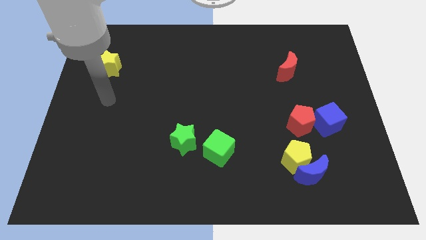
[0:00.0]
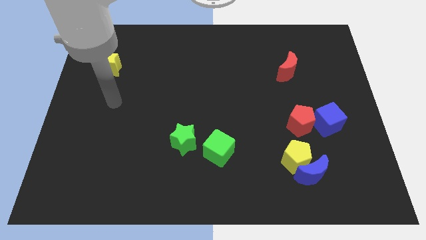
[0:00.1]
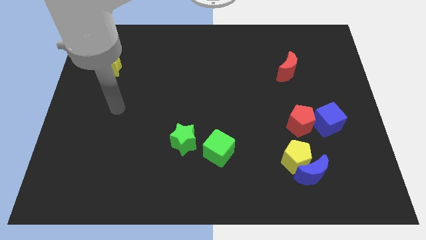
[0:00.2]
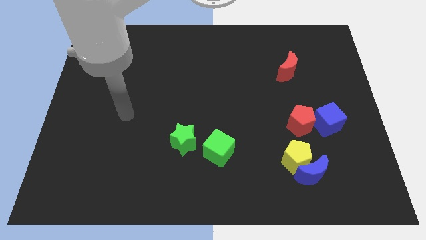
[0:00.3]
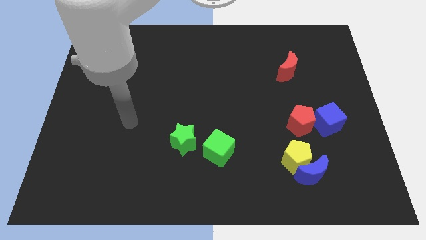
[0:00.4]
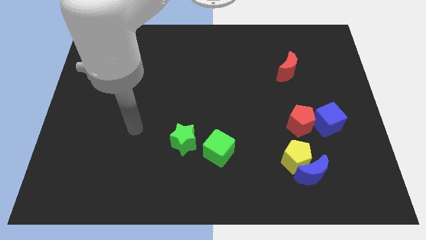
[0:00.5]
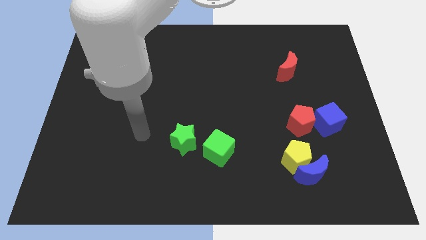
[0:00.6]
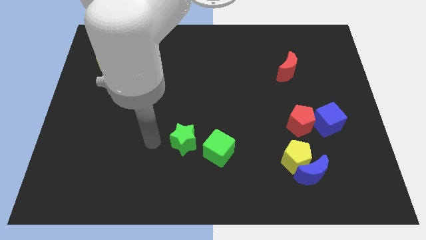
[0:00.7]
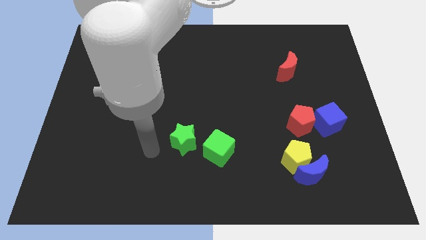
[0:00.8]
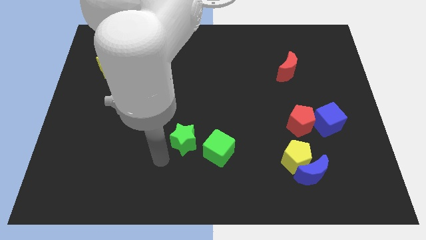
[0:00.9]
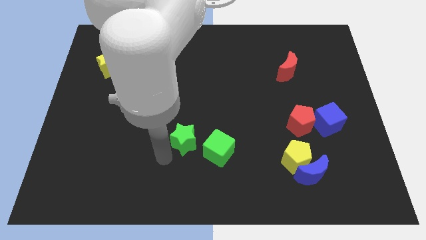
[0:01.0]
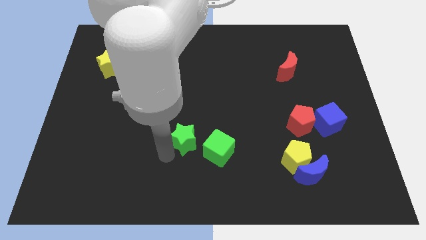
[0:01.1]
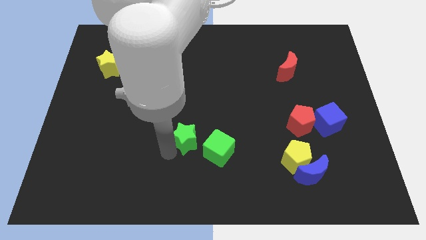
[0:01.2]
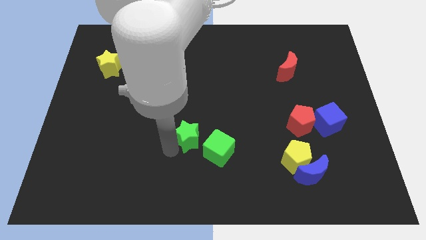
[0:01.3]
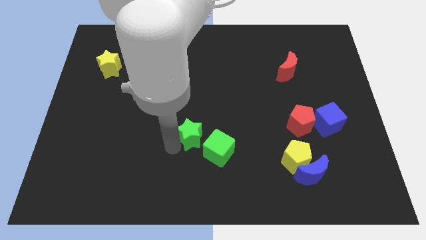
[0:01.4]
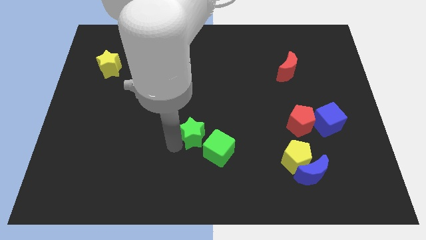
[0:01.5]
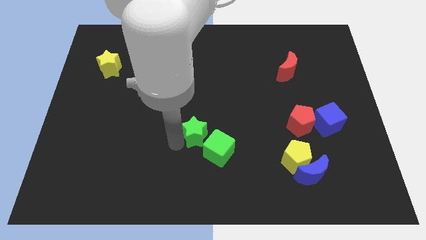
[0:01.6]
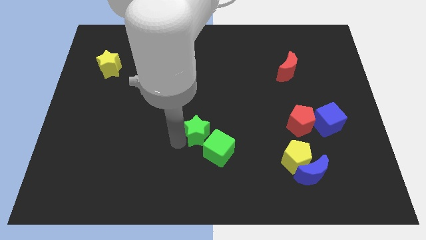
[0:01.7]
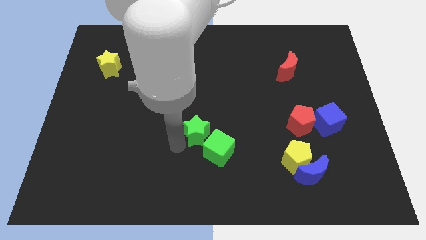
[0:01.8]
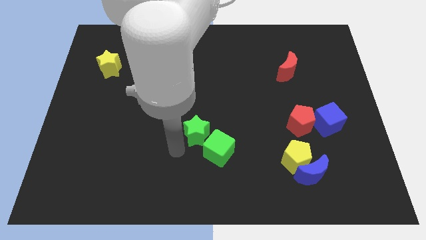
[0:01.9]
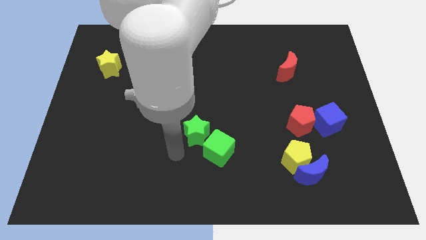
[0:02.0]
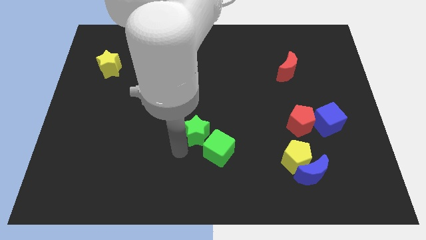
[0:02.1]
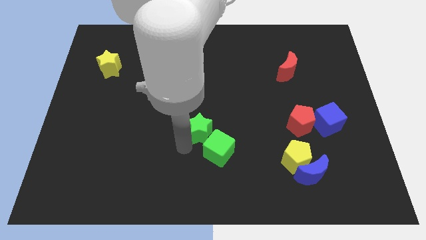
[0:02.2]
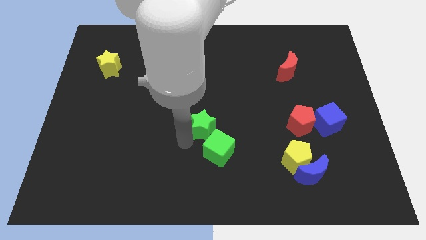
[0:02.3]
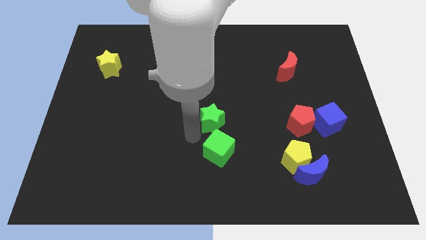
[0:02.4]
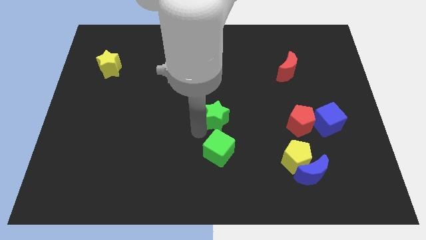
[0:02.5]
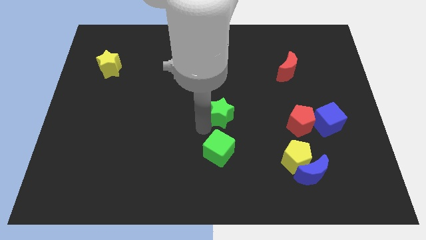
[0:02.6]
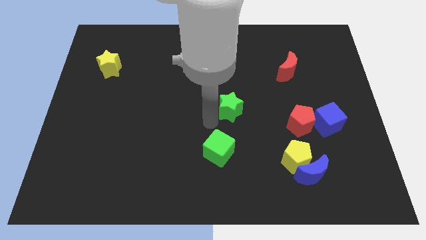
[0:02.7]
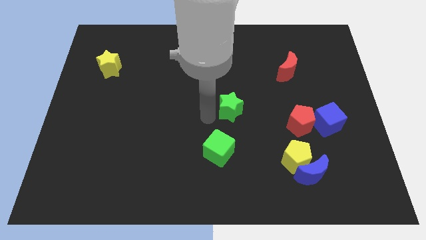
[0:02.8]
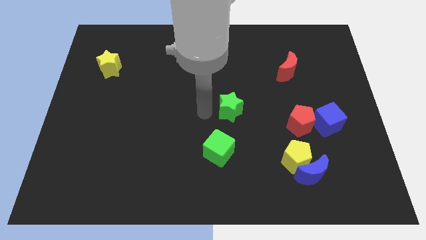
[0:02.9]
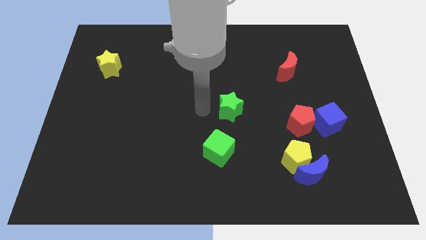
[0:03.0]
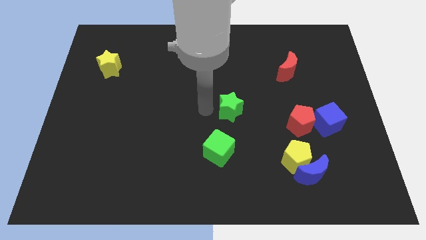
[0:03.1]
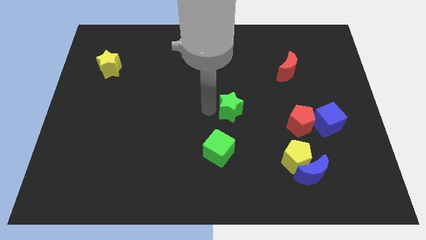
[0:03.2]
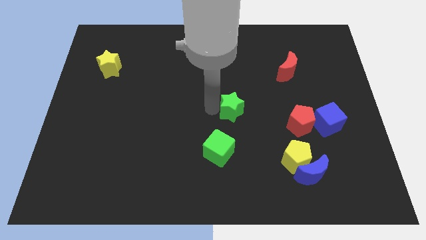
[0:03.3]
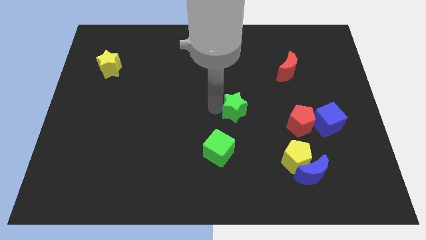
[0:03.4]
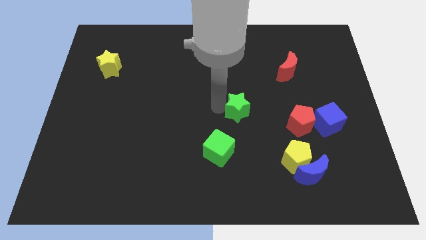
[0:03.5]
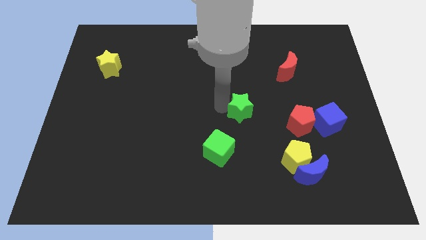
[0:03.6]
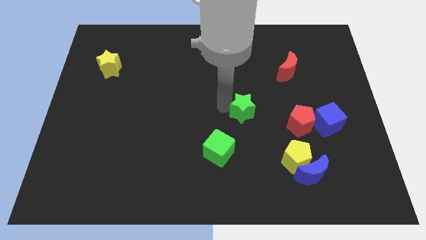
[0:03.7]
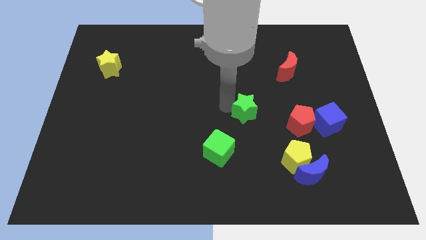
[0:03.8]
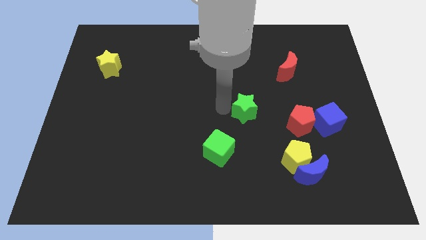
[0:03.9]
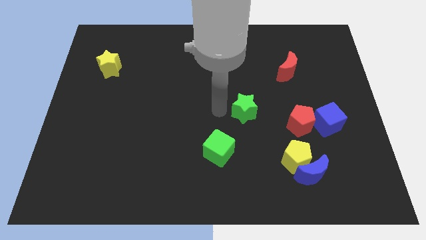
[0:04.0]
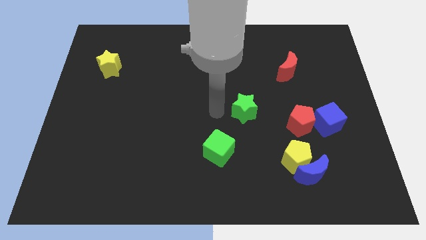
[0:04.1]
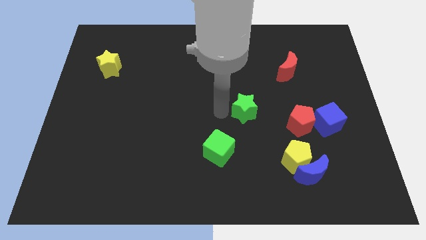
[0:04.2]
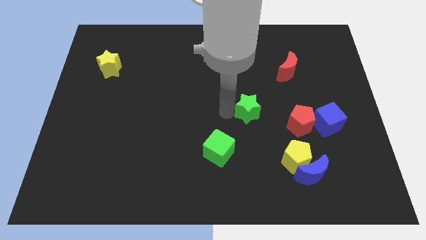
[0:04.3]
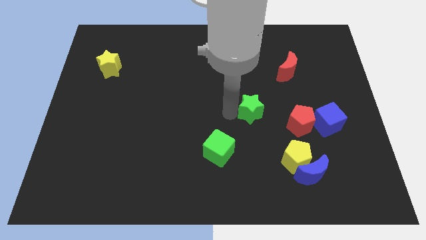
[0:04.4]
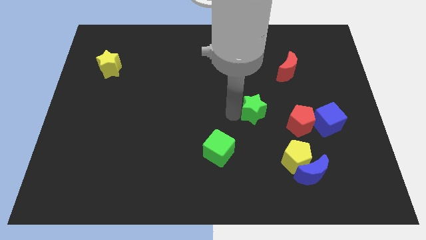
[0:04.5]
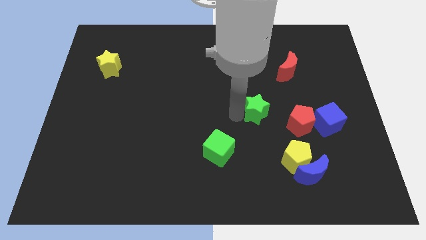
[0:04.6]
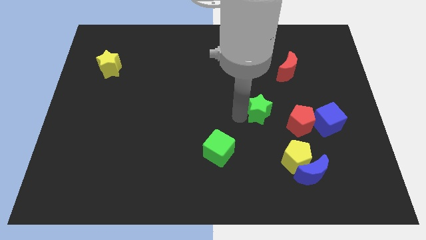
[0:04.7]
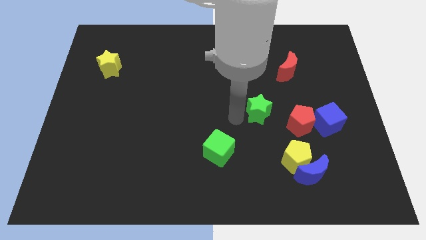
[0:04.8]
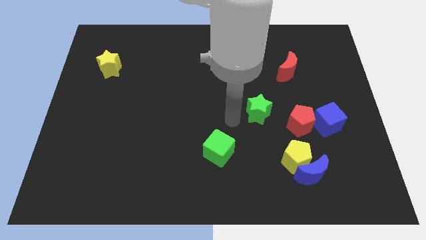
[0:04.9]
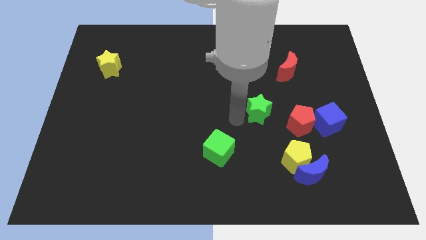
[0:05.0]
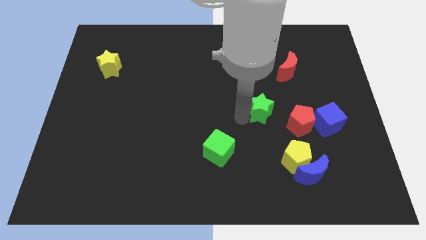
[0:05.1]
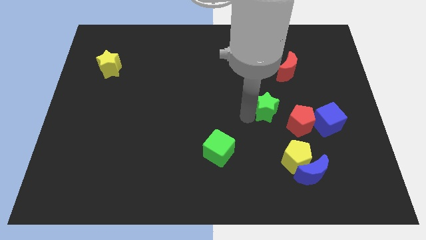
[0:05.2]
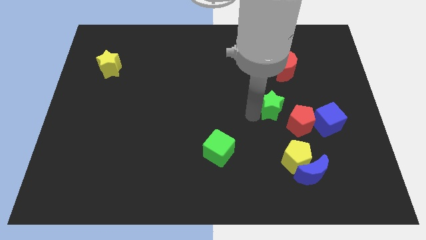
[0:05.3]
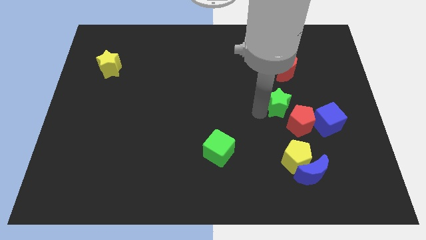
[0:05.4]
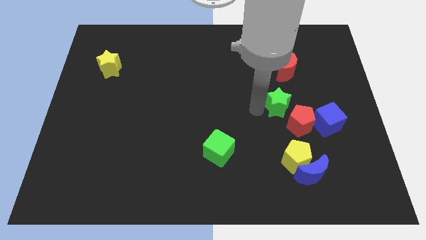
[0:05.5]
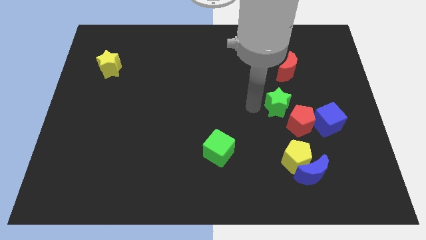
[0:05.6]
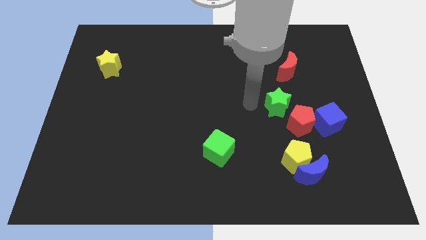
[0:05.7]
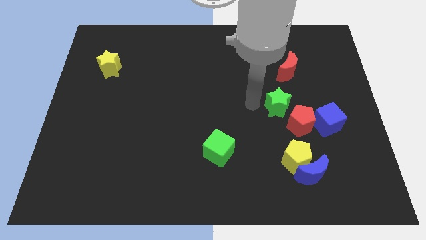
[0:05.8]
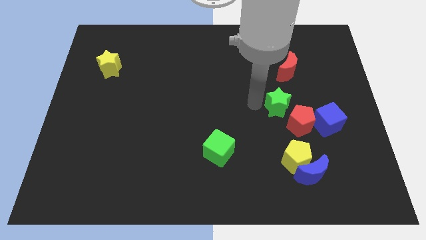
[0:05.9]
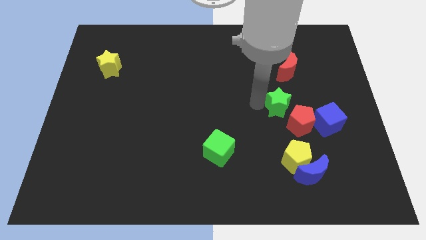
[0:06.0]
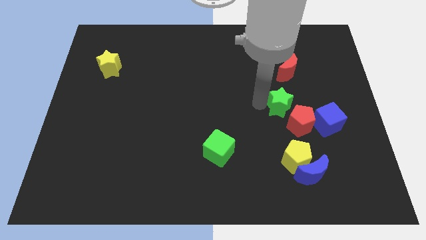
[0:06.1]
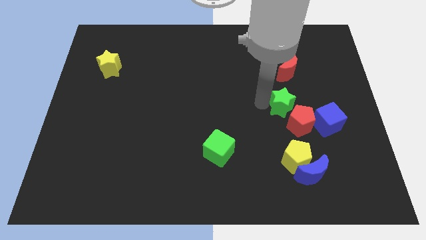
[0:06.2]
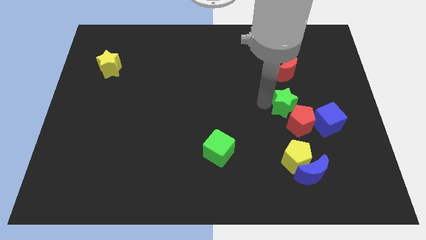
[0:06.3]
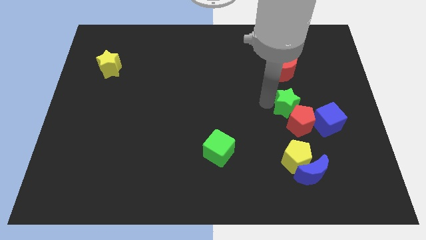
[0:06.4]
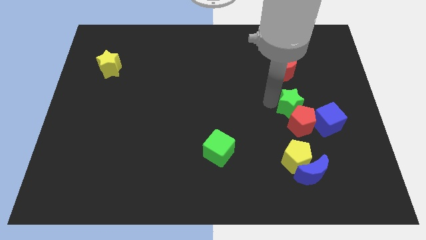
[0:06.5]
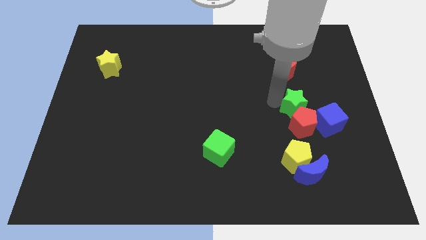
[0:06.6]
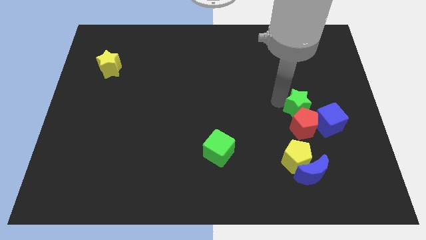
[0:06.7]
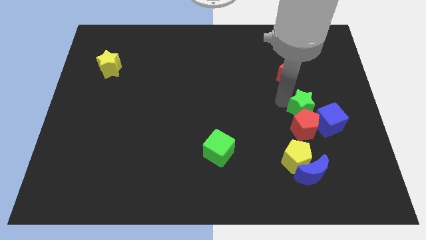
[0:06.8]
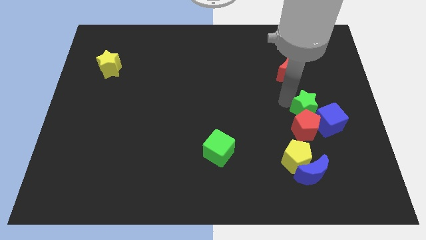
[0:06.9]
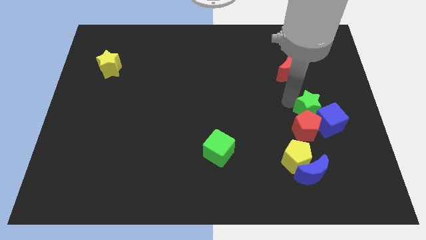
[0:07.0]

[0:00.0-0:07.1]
push the green star to the blue cube
